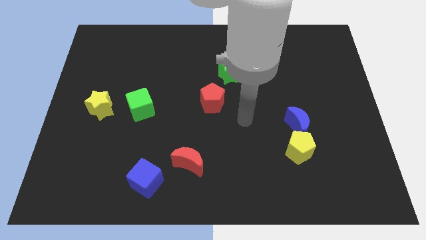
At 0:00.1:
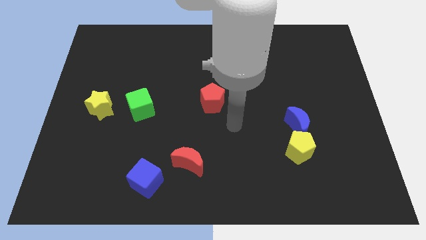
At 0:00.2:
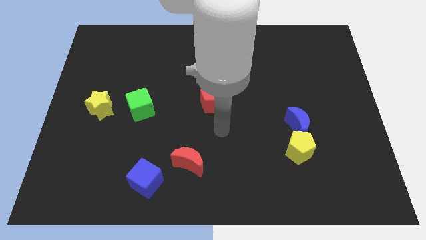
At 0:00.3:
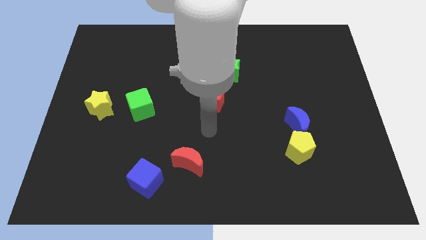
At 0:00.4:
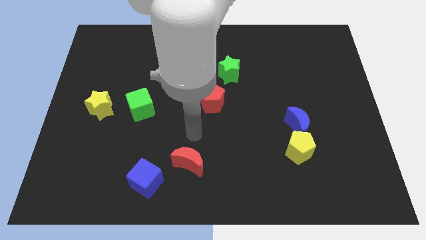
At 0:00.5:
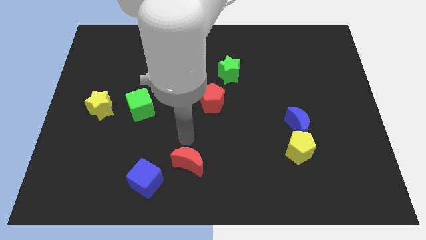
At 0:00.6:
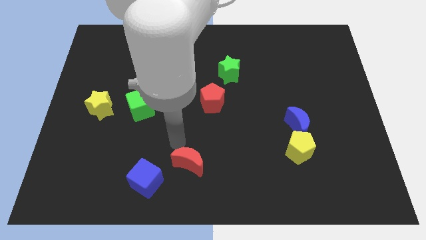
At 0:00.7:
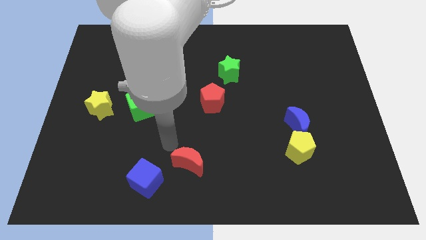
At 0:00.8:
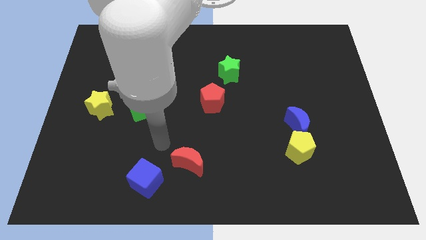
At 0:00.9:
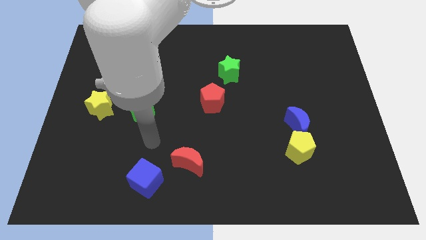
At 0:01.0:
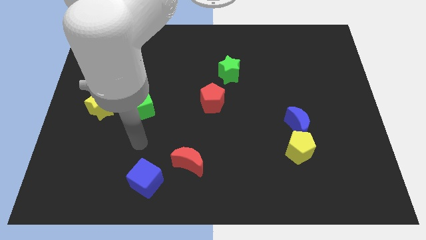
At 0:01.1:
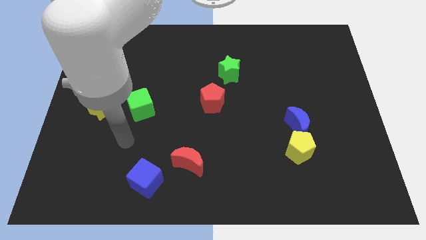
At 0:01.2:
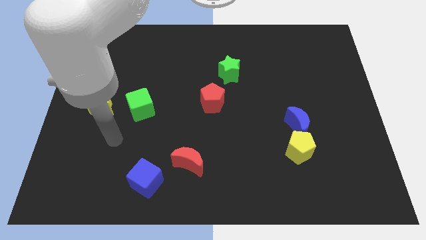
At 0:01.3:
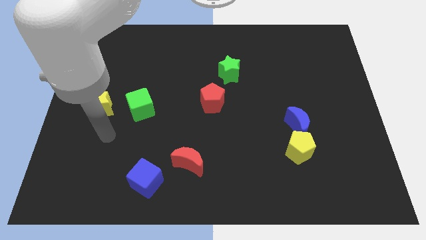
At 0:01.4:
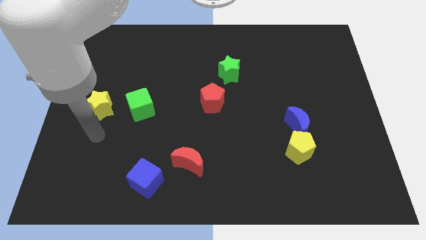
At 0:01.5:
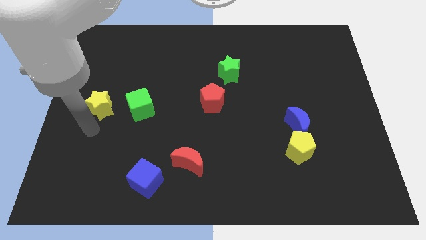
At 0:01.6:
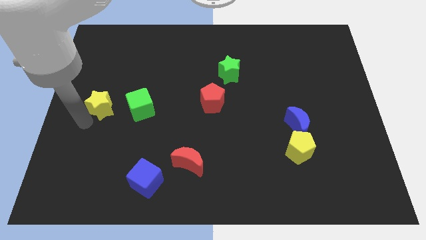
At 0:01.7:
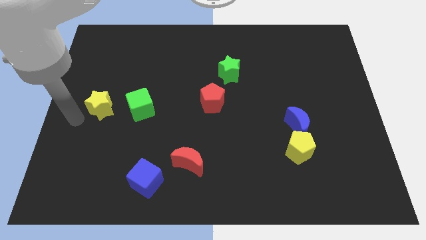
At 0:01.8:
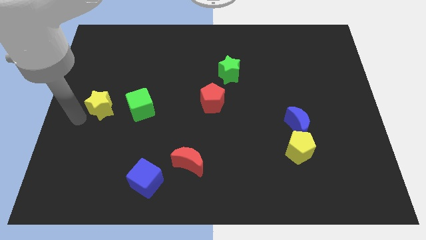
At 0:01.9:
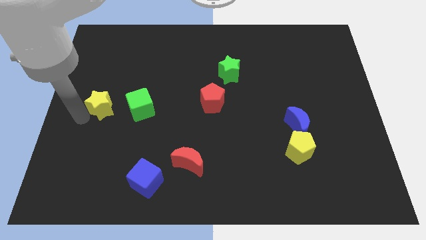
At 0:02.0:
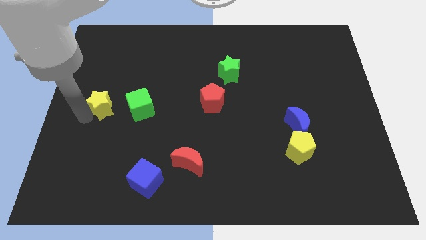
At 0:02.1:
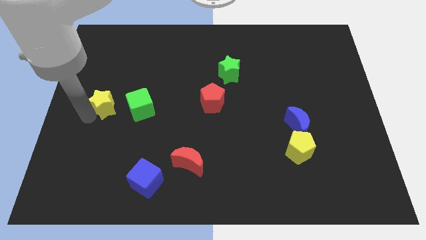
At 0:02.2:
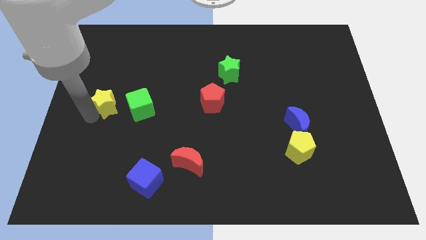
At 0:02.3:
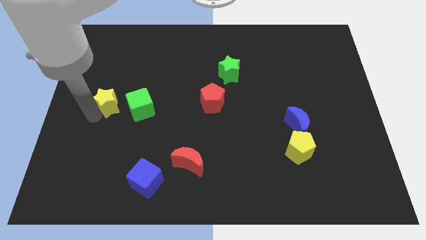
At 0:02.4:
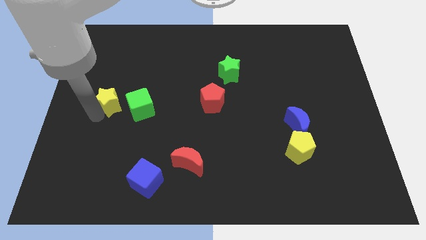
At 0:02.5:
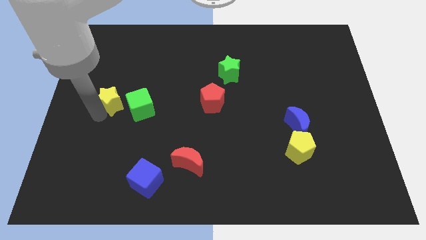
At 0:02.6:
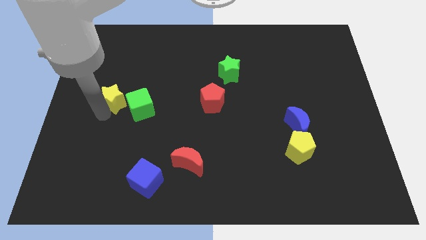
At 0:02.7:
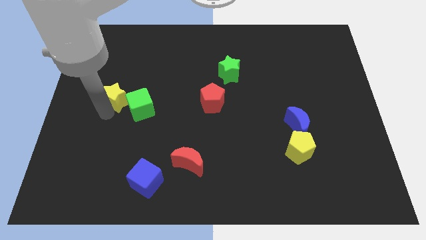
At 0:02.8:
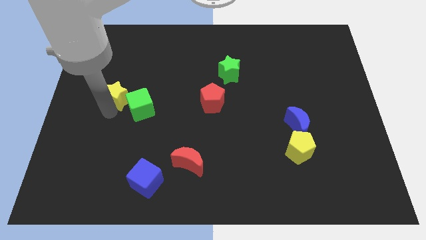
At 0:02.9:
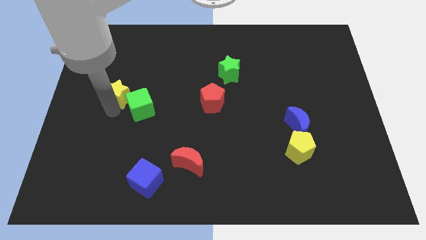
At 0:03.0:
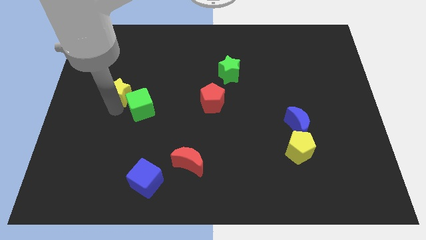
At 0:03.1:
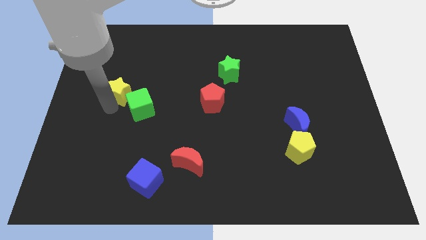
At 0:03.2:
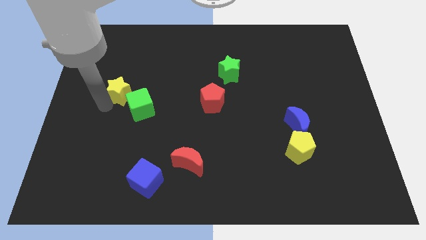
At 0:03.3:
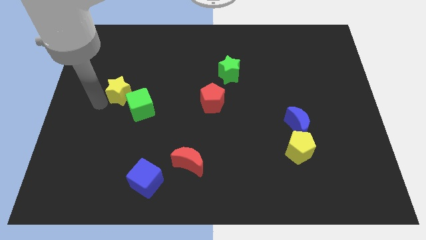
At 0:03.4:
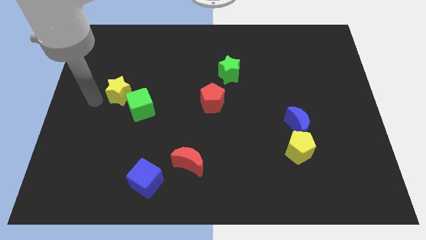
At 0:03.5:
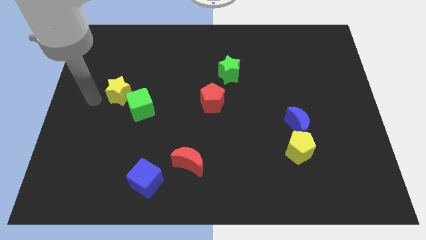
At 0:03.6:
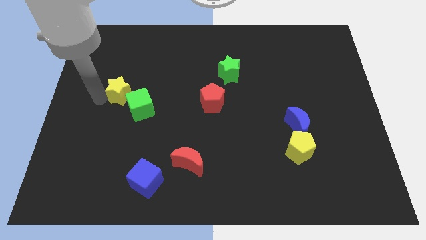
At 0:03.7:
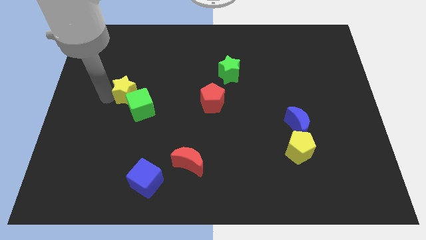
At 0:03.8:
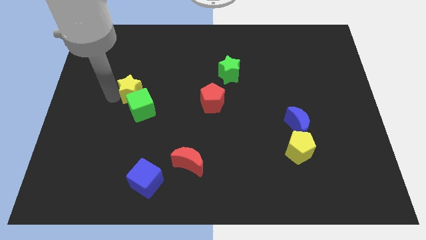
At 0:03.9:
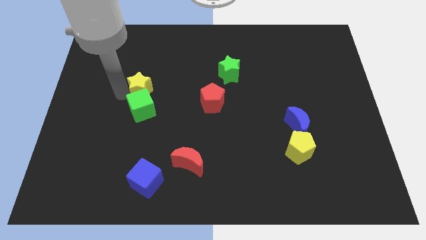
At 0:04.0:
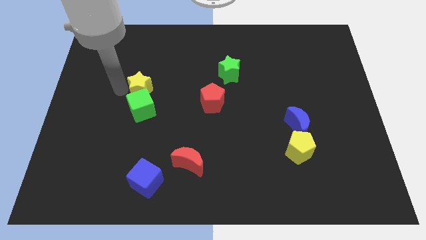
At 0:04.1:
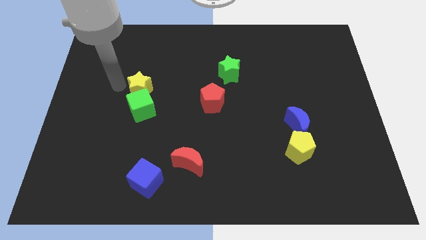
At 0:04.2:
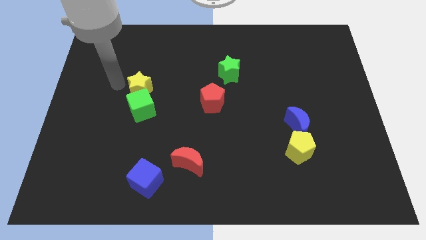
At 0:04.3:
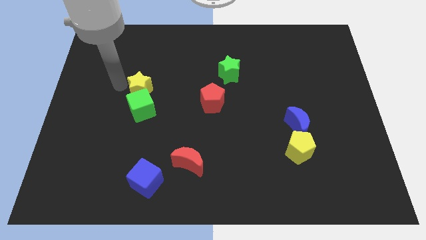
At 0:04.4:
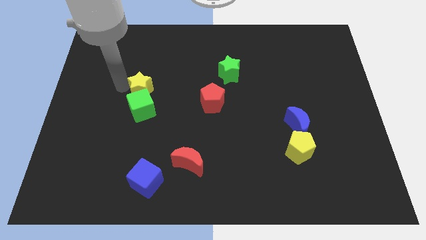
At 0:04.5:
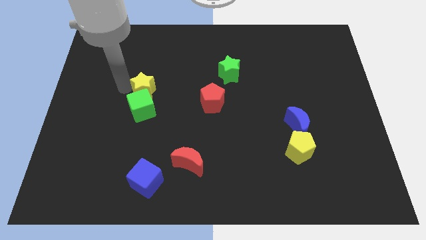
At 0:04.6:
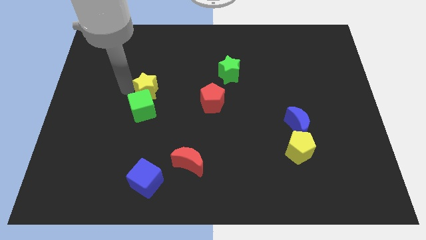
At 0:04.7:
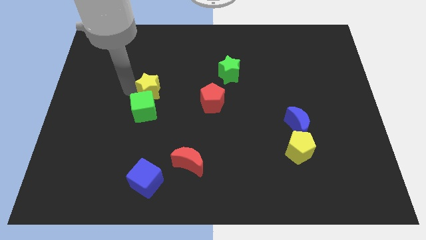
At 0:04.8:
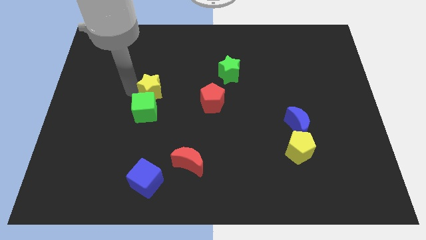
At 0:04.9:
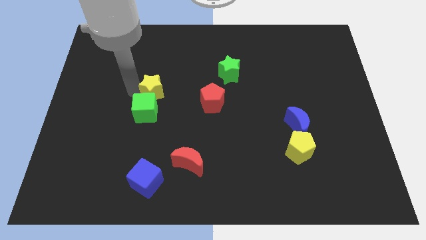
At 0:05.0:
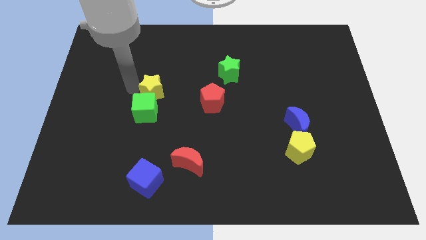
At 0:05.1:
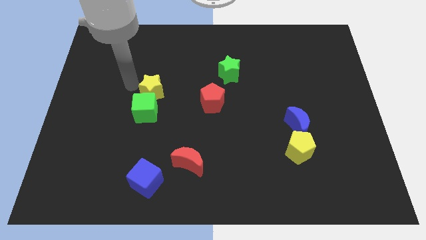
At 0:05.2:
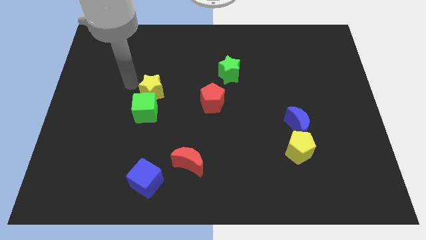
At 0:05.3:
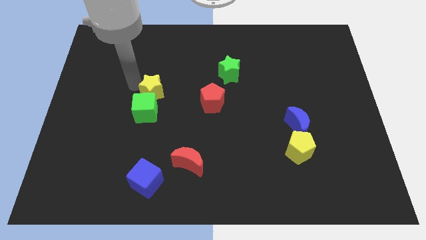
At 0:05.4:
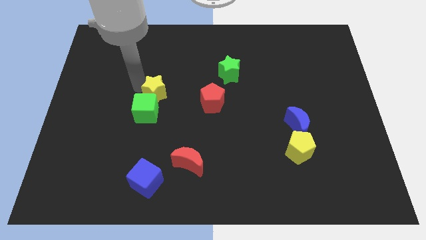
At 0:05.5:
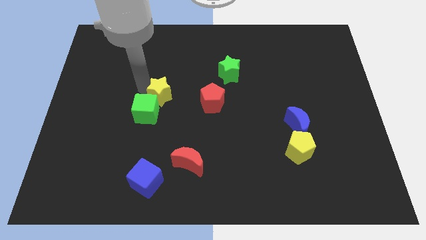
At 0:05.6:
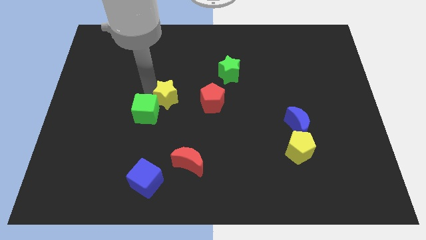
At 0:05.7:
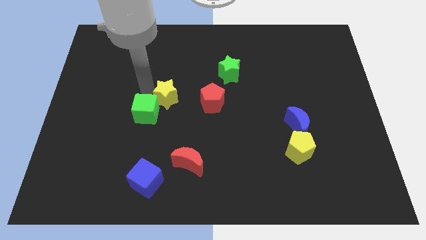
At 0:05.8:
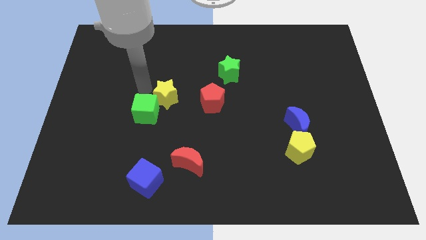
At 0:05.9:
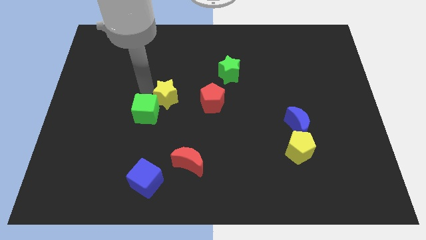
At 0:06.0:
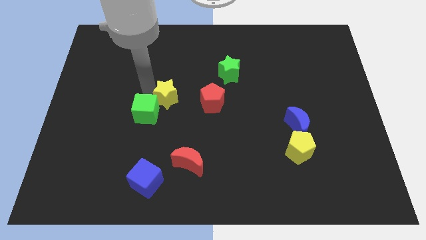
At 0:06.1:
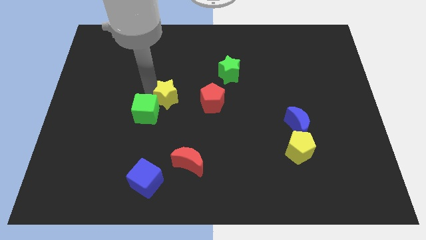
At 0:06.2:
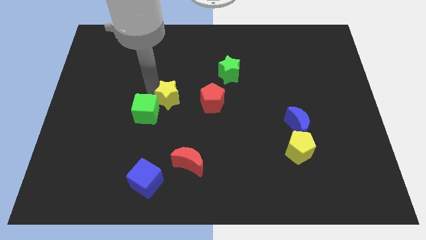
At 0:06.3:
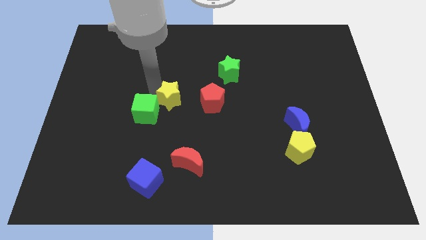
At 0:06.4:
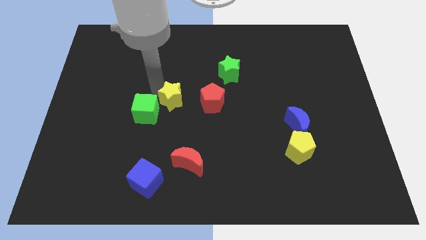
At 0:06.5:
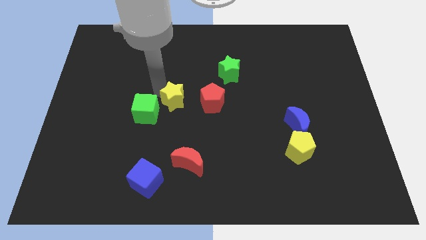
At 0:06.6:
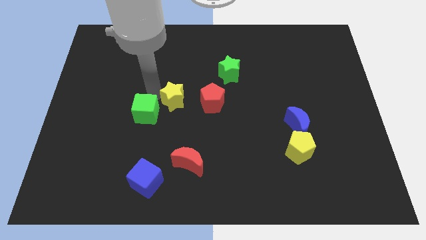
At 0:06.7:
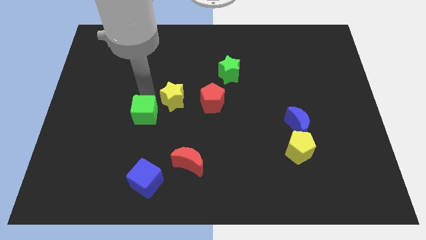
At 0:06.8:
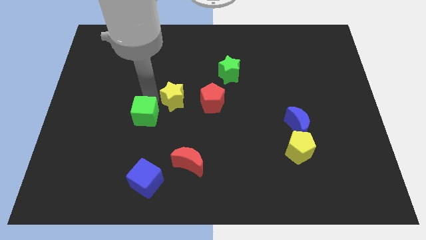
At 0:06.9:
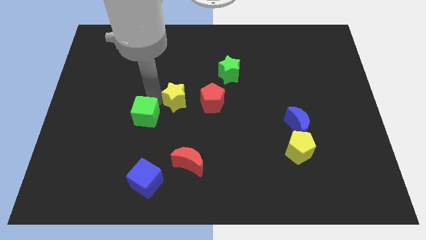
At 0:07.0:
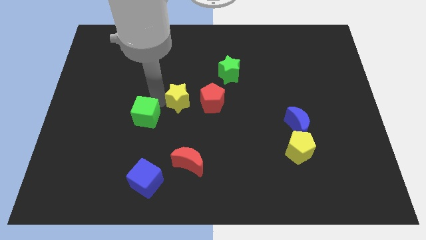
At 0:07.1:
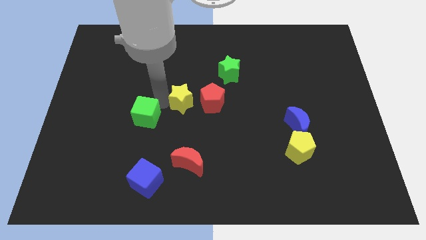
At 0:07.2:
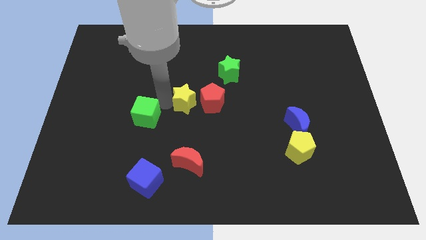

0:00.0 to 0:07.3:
move the yellow star towards the red pentagon
